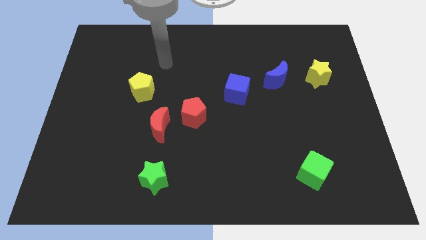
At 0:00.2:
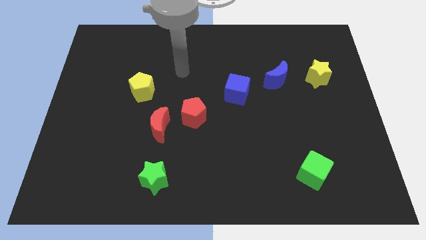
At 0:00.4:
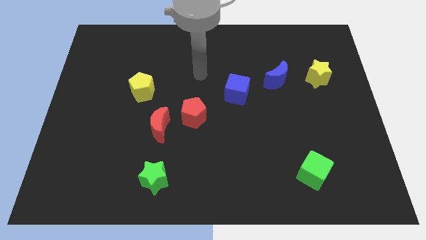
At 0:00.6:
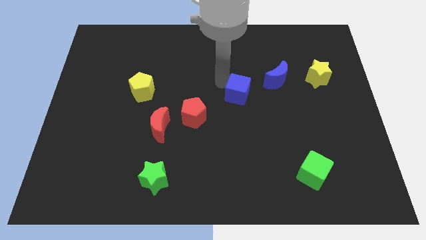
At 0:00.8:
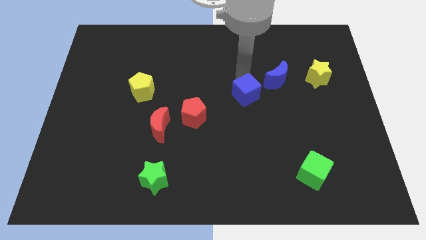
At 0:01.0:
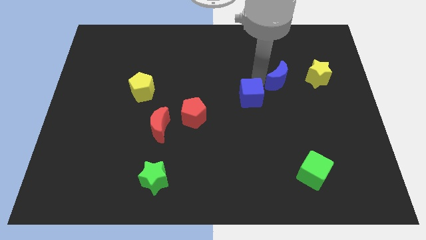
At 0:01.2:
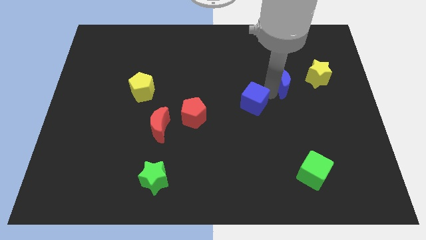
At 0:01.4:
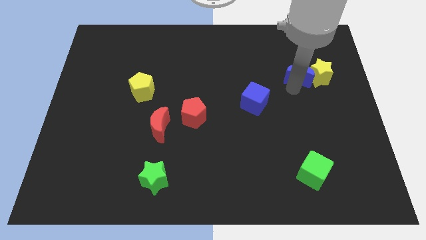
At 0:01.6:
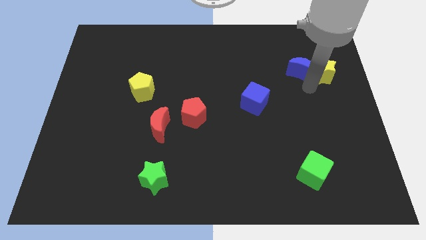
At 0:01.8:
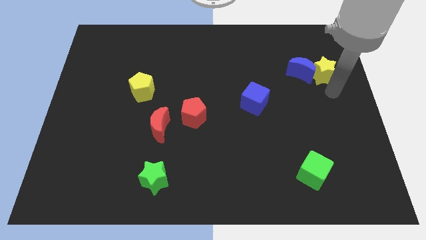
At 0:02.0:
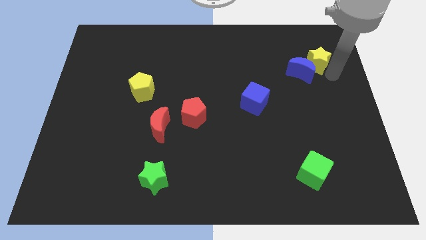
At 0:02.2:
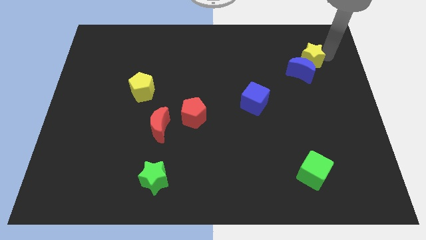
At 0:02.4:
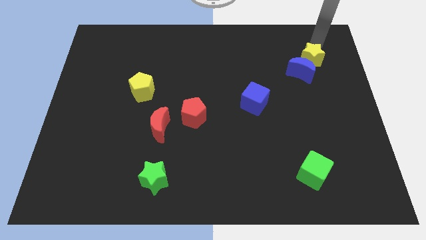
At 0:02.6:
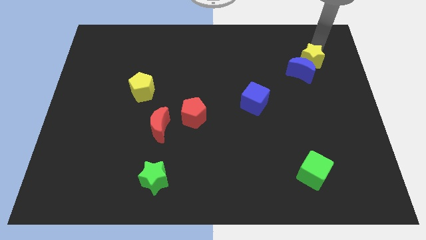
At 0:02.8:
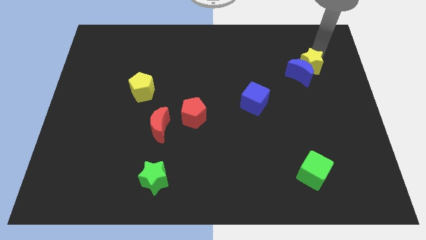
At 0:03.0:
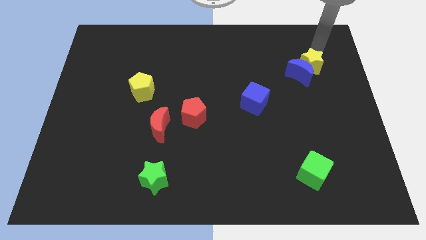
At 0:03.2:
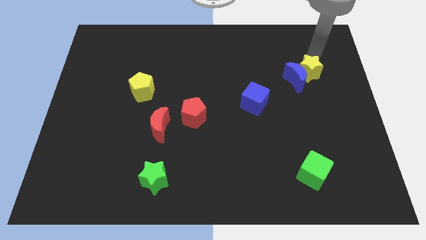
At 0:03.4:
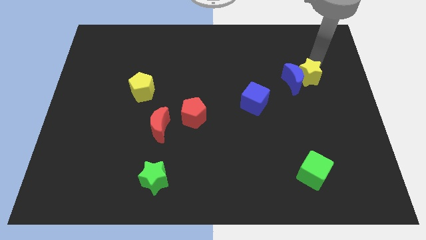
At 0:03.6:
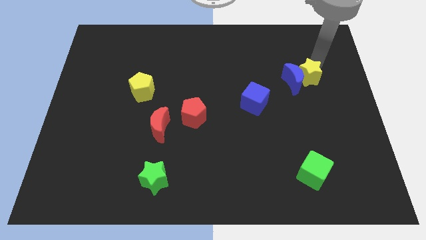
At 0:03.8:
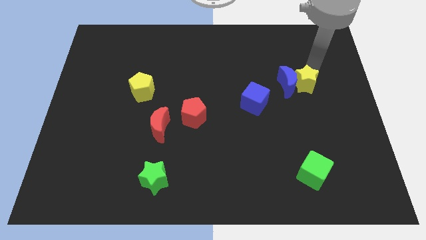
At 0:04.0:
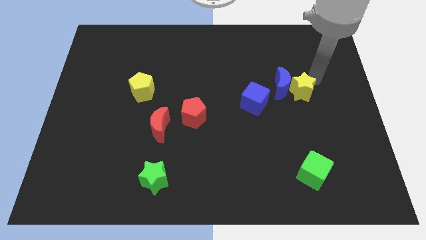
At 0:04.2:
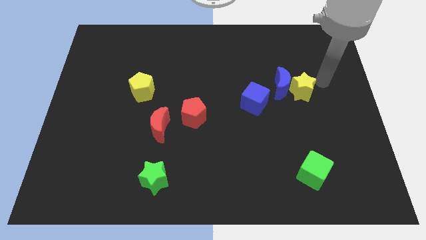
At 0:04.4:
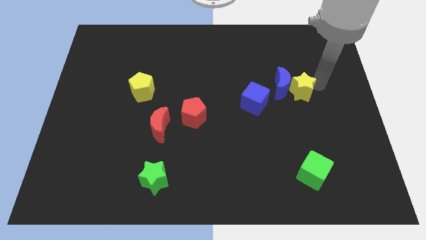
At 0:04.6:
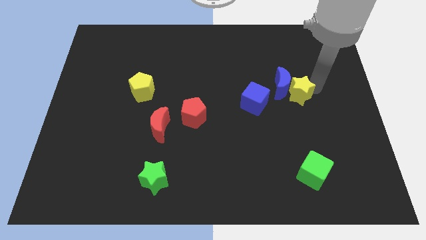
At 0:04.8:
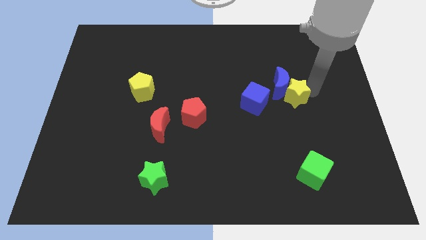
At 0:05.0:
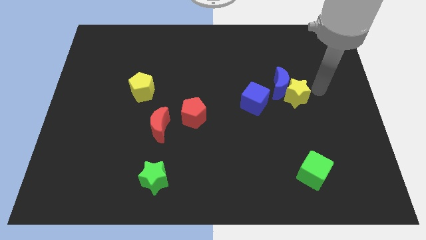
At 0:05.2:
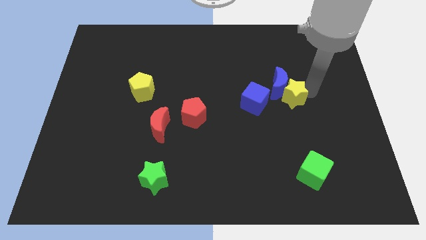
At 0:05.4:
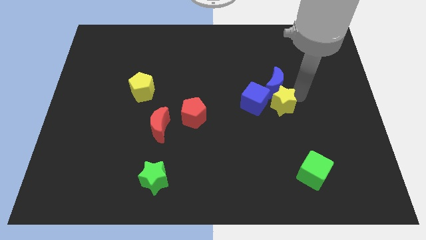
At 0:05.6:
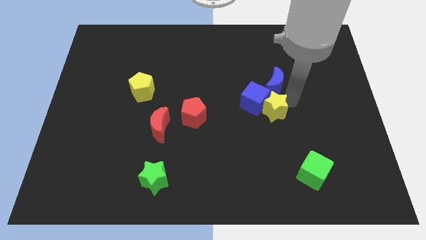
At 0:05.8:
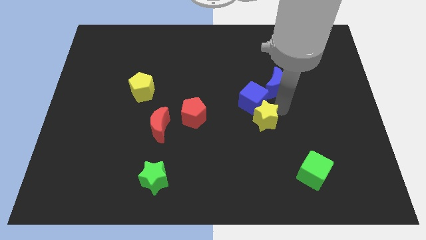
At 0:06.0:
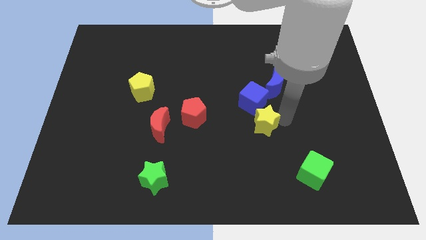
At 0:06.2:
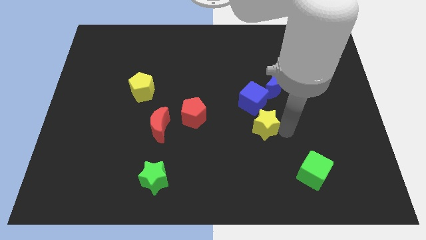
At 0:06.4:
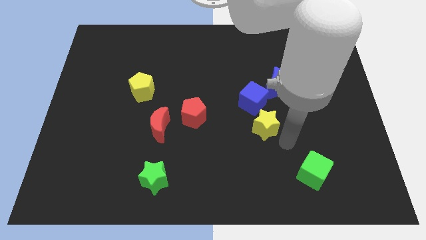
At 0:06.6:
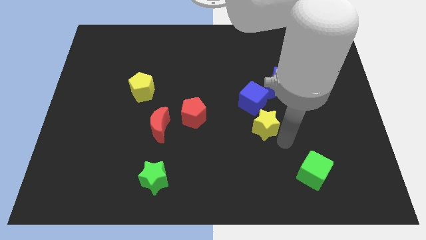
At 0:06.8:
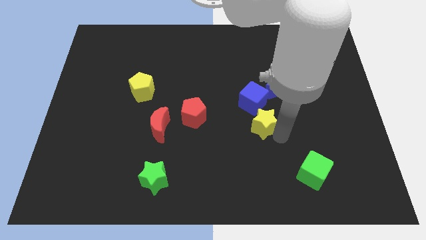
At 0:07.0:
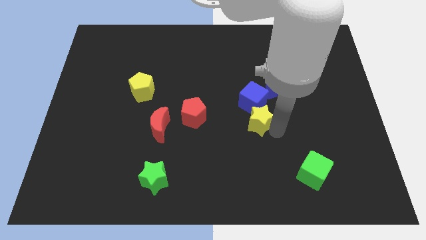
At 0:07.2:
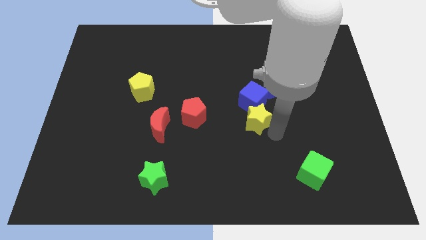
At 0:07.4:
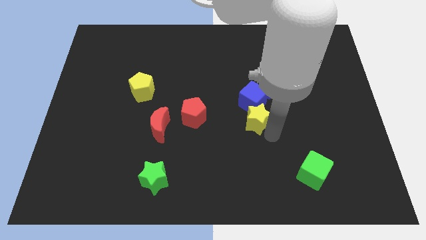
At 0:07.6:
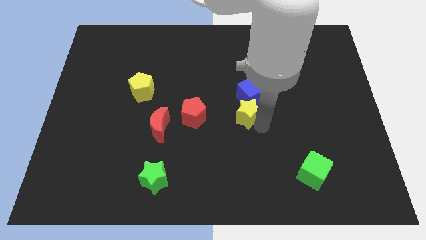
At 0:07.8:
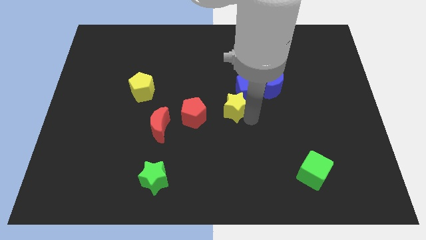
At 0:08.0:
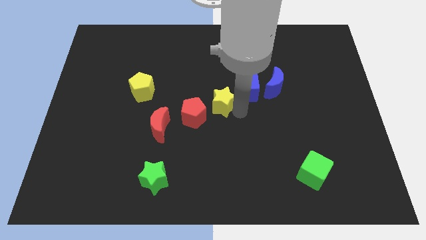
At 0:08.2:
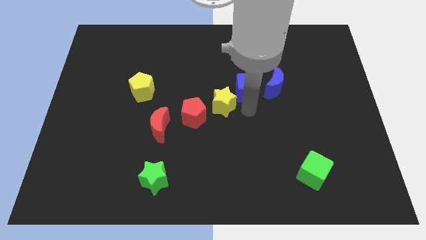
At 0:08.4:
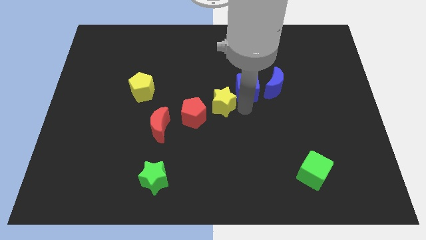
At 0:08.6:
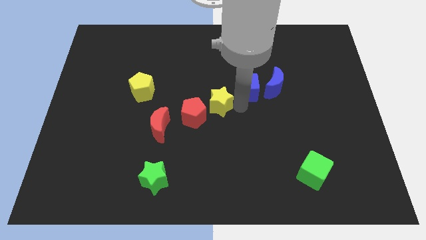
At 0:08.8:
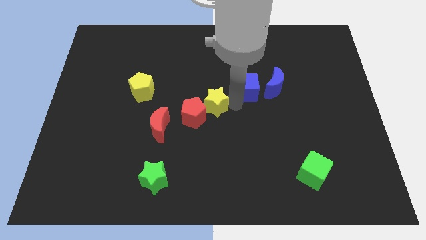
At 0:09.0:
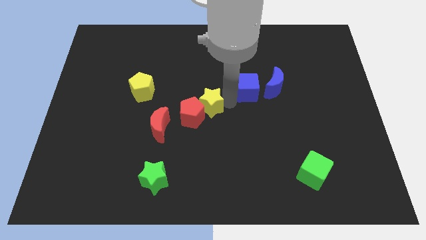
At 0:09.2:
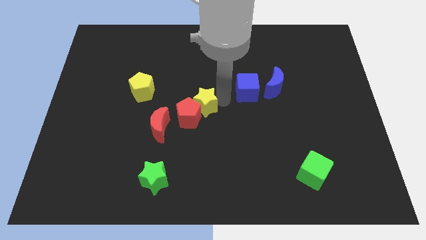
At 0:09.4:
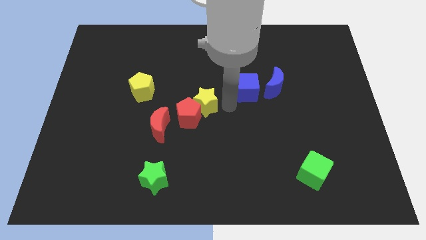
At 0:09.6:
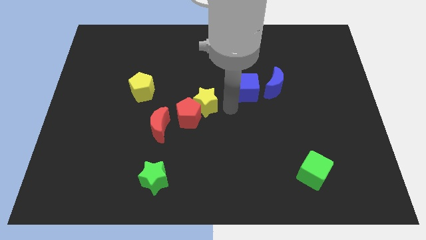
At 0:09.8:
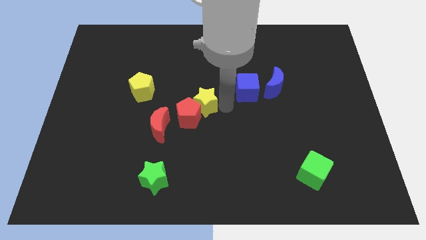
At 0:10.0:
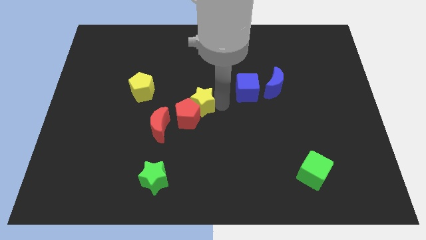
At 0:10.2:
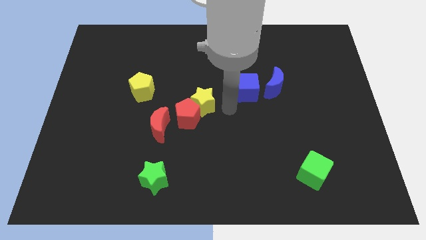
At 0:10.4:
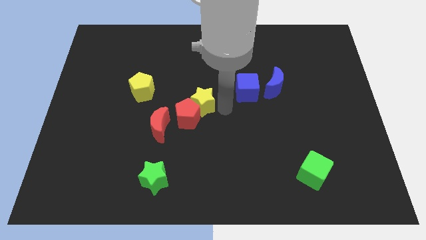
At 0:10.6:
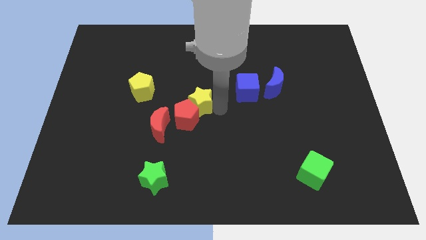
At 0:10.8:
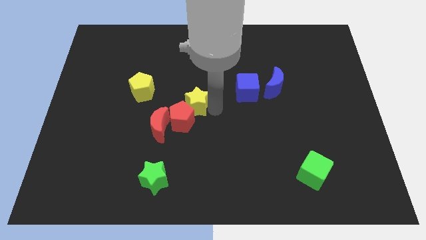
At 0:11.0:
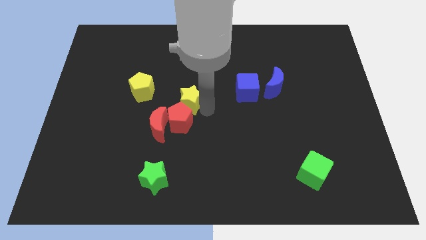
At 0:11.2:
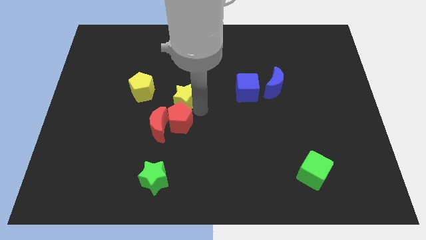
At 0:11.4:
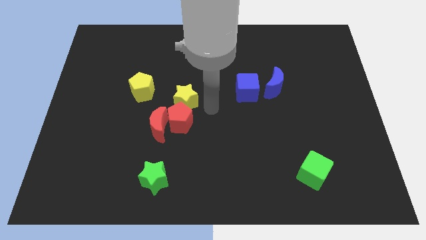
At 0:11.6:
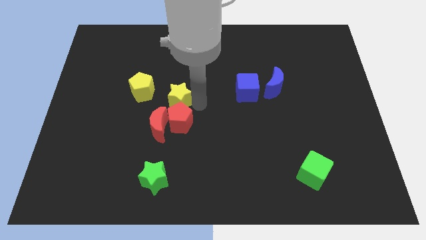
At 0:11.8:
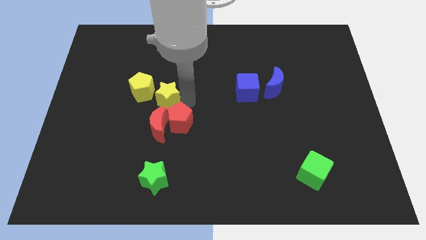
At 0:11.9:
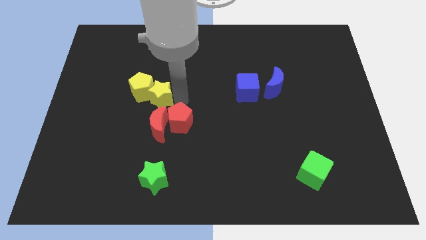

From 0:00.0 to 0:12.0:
put the yellow star to the yellow pentagon
